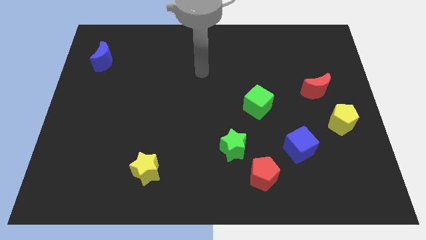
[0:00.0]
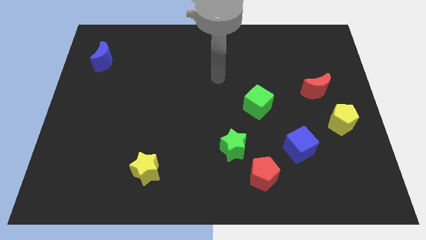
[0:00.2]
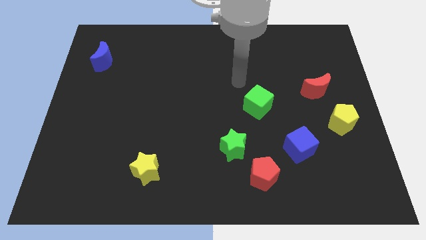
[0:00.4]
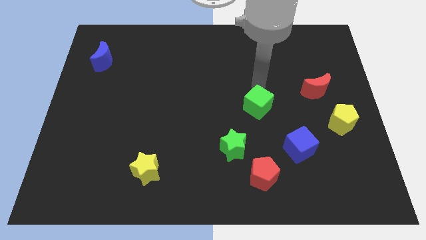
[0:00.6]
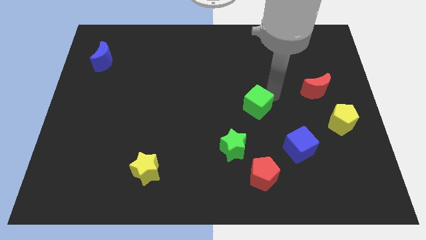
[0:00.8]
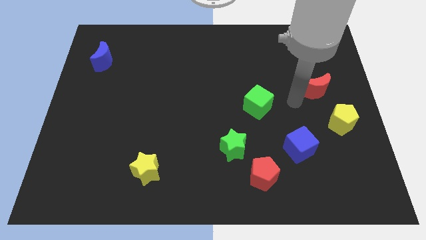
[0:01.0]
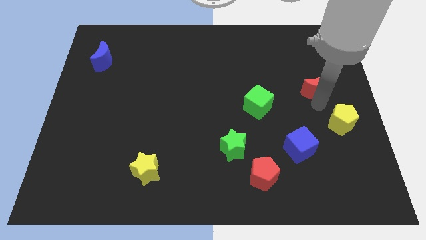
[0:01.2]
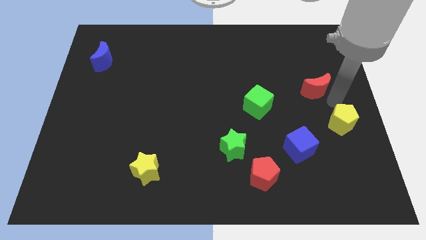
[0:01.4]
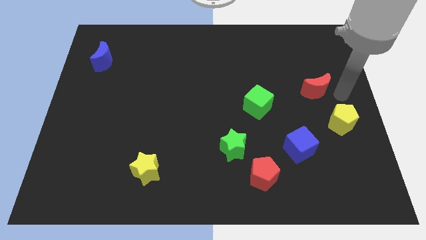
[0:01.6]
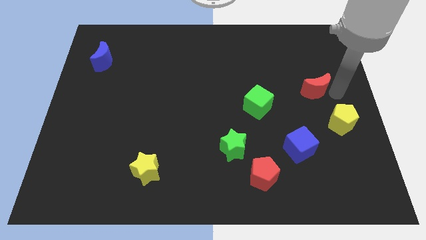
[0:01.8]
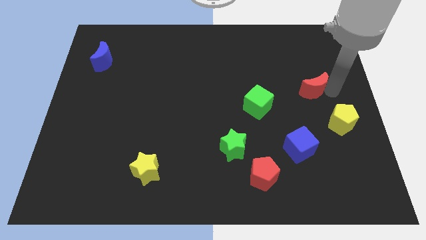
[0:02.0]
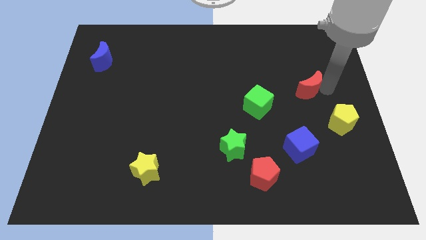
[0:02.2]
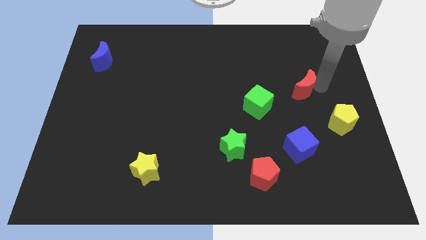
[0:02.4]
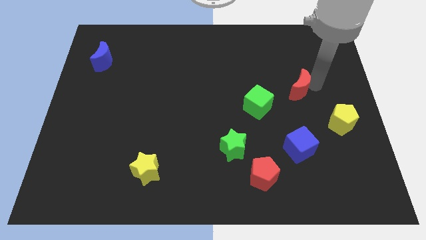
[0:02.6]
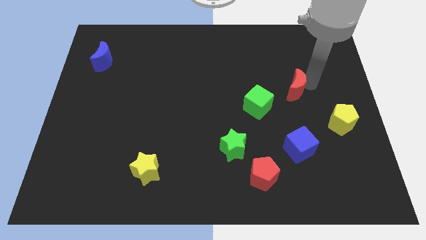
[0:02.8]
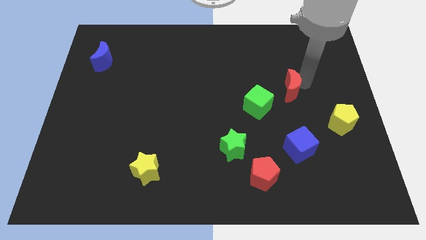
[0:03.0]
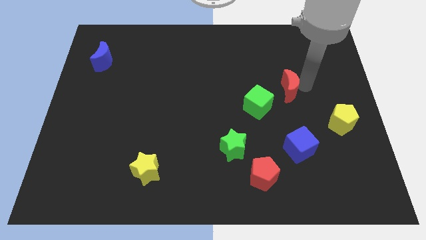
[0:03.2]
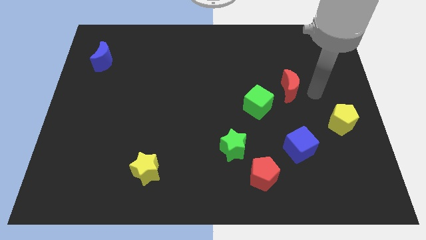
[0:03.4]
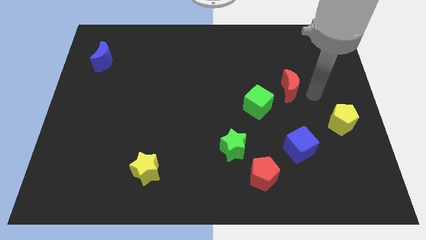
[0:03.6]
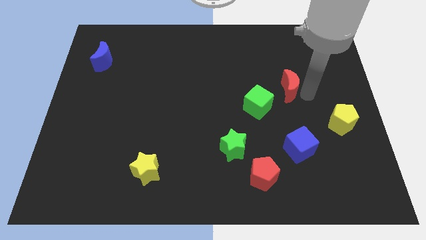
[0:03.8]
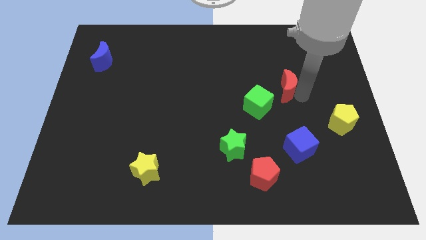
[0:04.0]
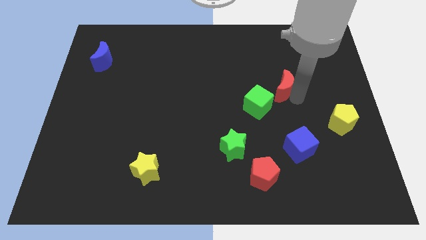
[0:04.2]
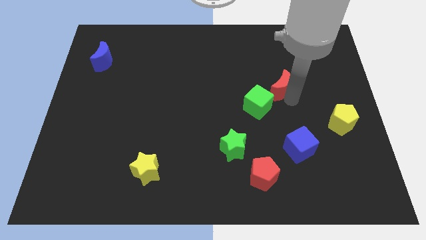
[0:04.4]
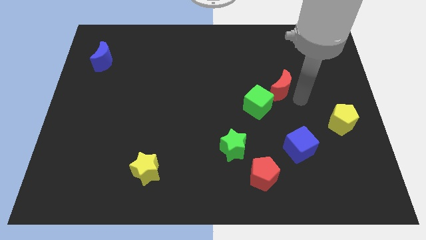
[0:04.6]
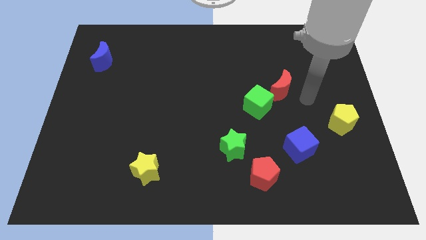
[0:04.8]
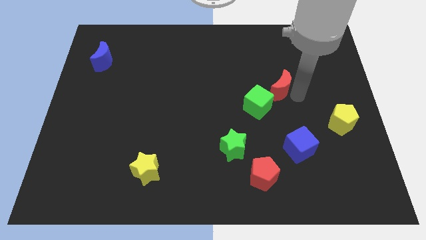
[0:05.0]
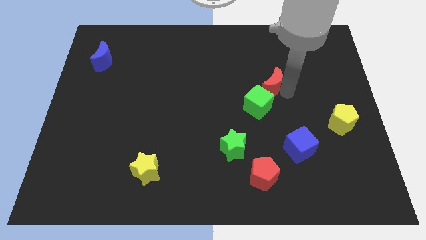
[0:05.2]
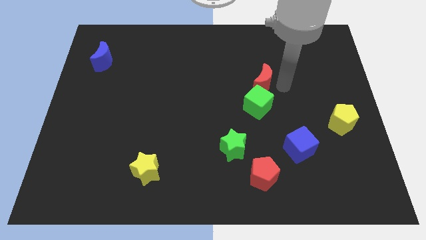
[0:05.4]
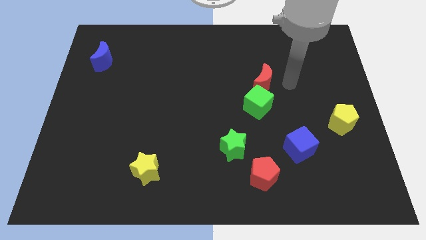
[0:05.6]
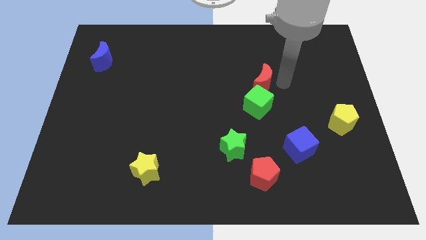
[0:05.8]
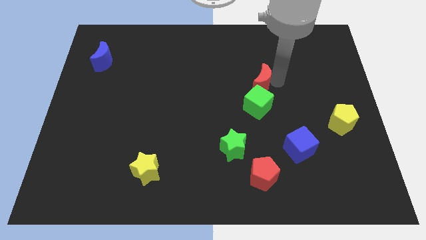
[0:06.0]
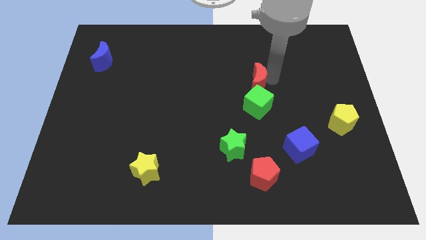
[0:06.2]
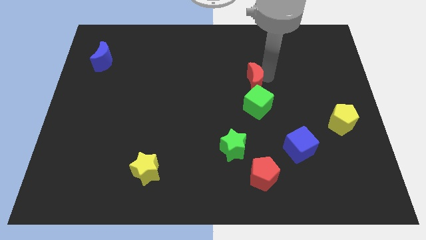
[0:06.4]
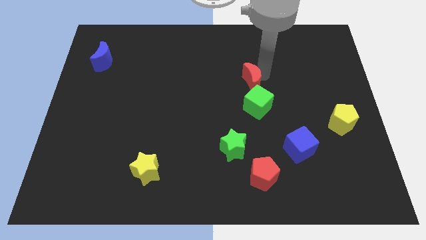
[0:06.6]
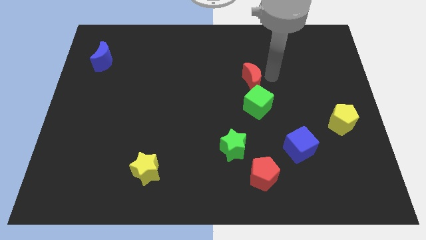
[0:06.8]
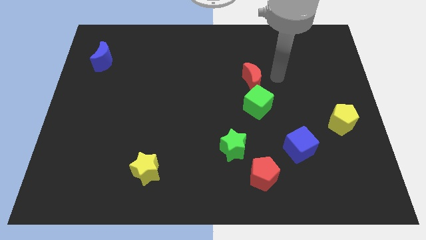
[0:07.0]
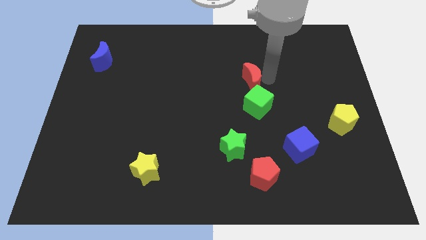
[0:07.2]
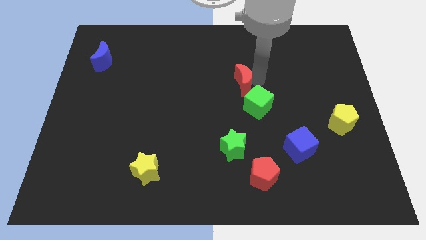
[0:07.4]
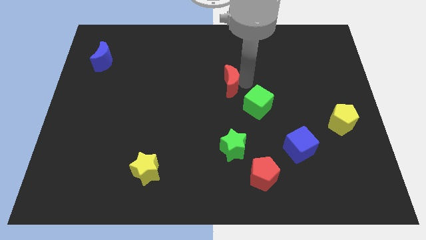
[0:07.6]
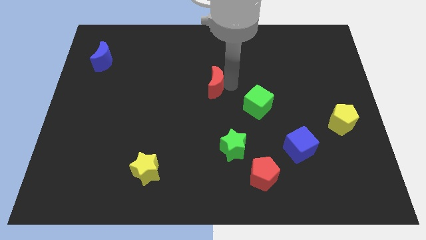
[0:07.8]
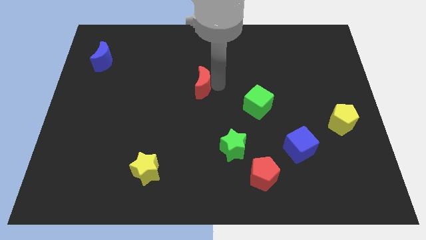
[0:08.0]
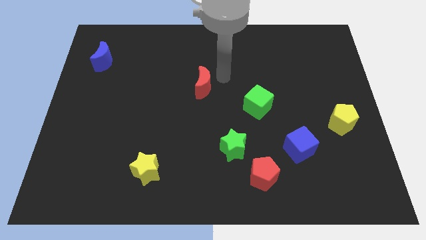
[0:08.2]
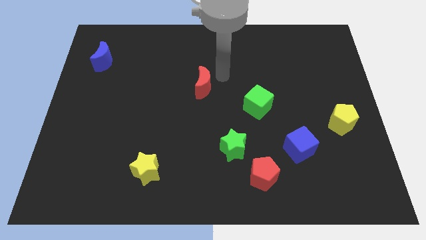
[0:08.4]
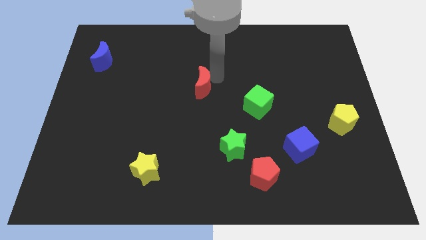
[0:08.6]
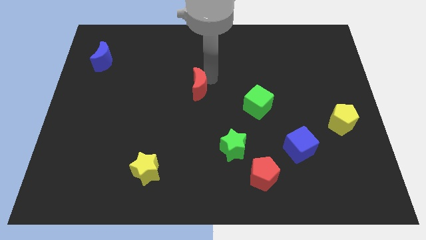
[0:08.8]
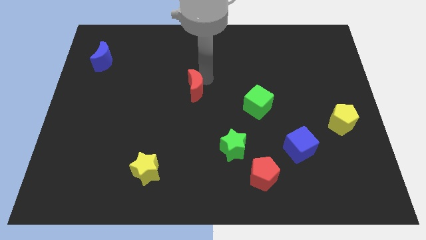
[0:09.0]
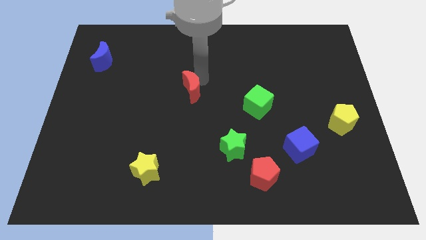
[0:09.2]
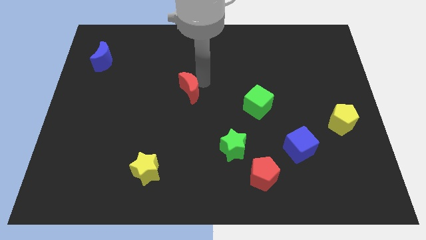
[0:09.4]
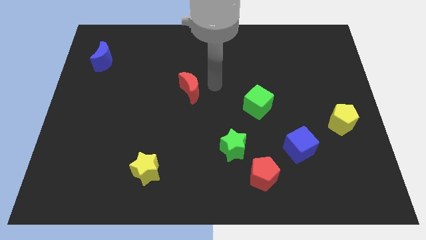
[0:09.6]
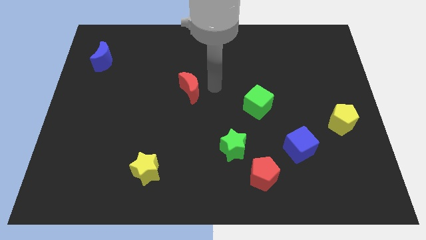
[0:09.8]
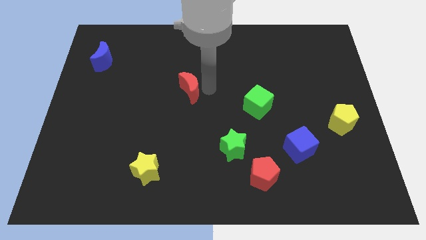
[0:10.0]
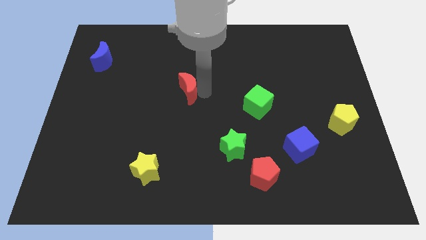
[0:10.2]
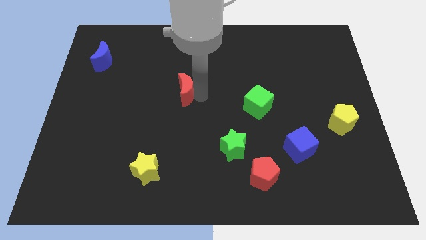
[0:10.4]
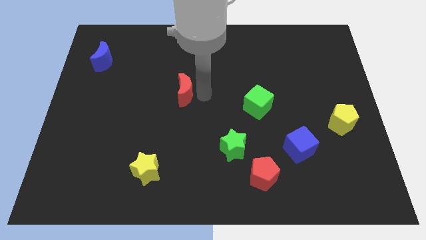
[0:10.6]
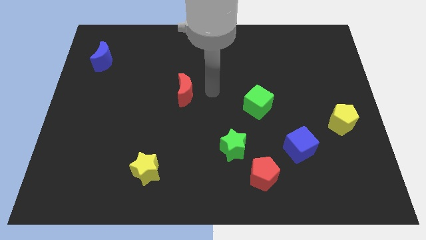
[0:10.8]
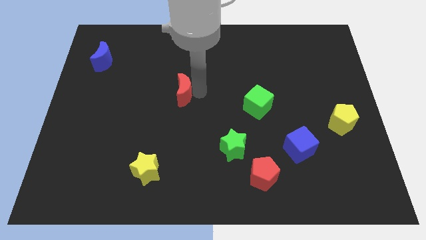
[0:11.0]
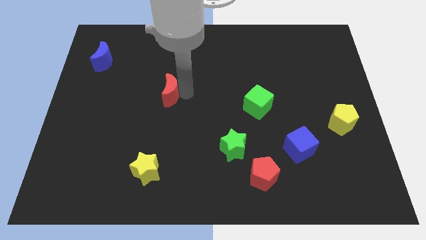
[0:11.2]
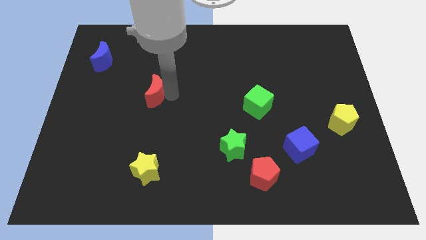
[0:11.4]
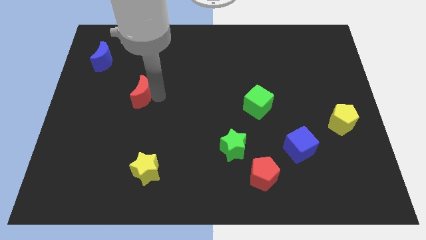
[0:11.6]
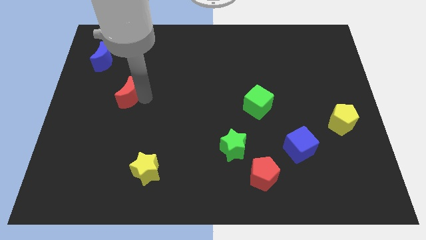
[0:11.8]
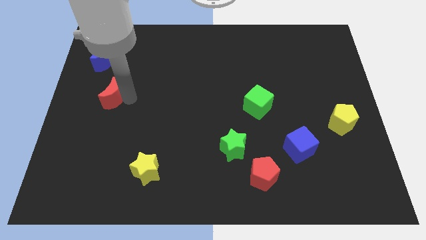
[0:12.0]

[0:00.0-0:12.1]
push the red moon to the bottom side of the blue moon

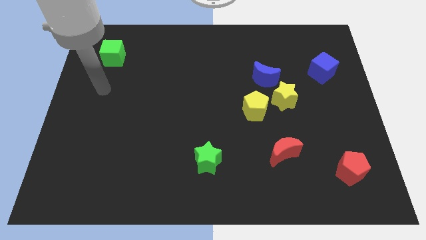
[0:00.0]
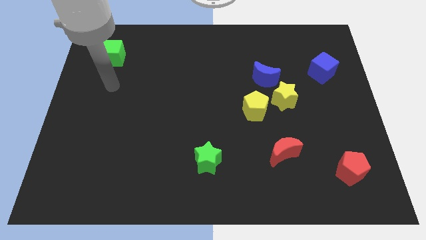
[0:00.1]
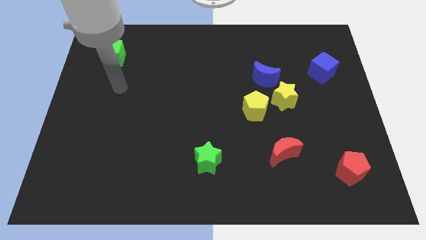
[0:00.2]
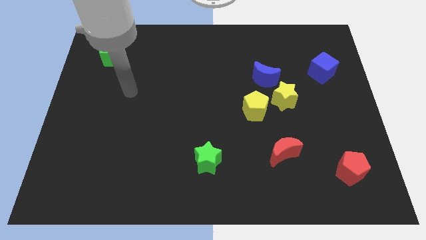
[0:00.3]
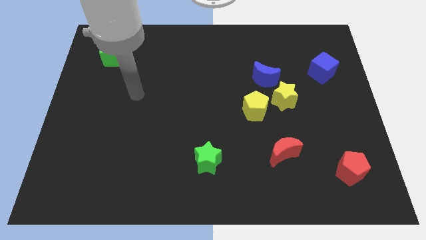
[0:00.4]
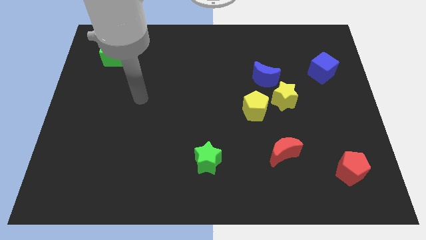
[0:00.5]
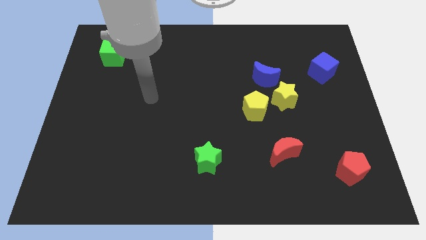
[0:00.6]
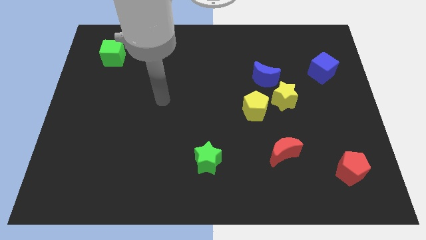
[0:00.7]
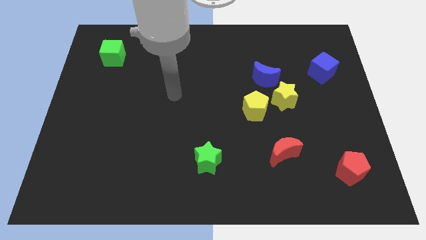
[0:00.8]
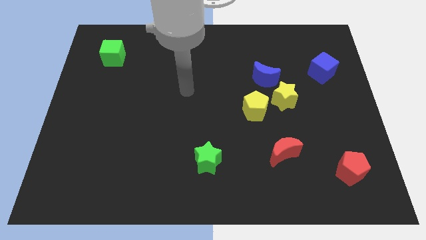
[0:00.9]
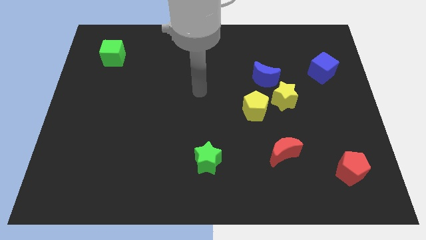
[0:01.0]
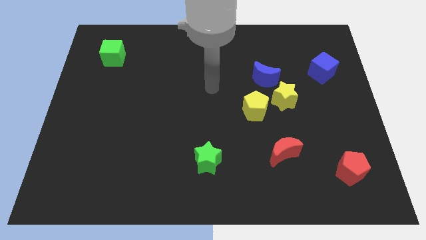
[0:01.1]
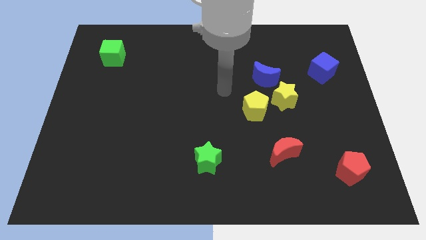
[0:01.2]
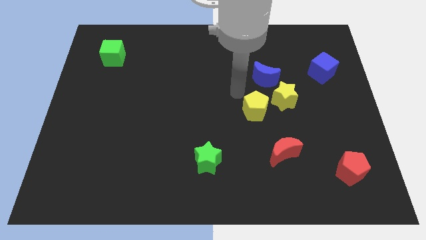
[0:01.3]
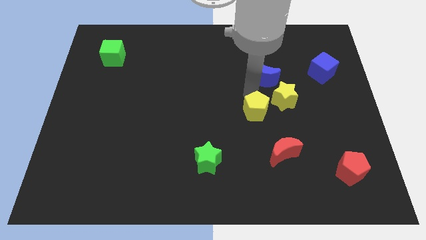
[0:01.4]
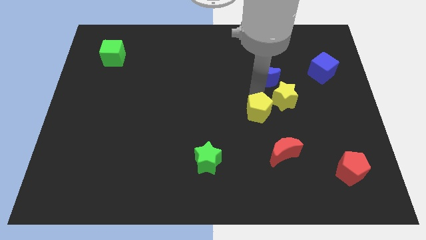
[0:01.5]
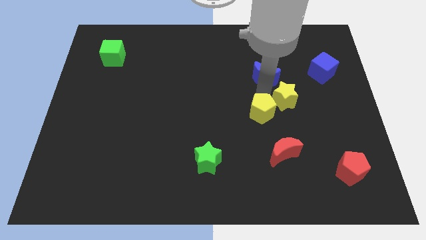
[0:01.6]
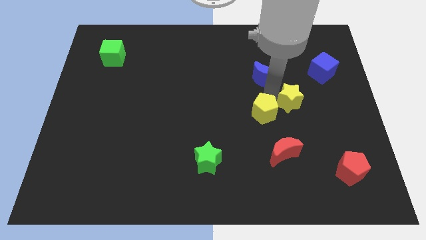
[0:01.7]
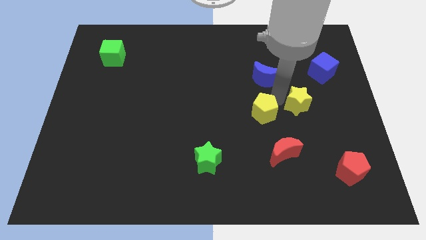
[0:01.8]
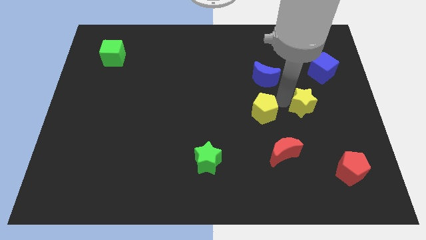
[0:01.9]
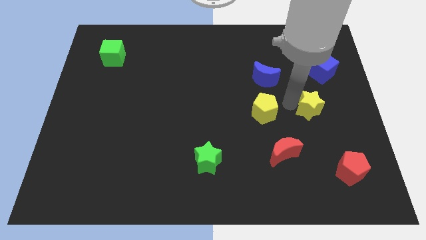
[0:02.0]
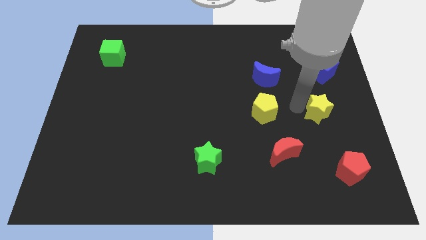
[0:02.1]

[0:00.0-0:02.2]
move the yellow star below the blue cube
